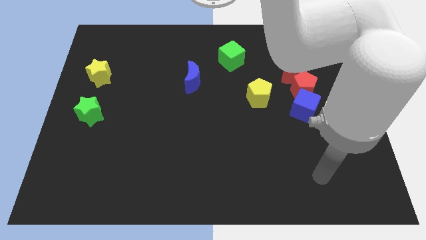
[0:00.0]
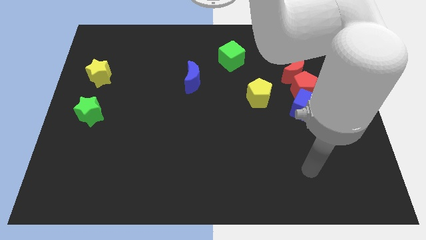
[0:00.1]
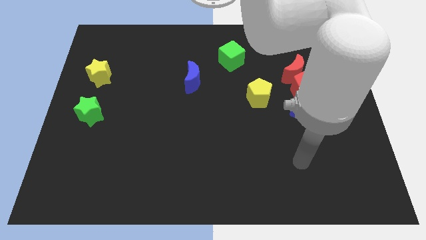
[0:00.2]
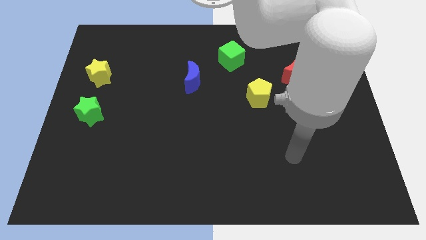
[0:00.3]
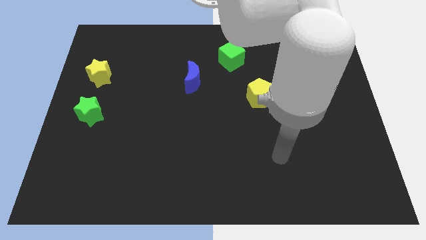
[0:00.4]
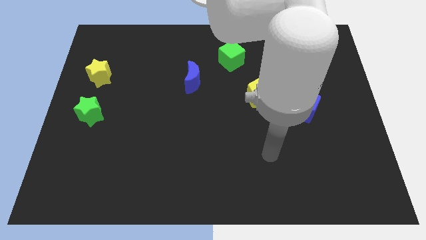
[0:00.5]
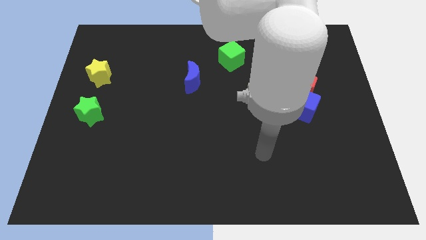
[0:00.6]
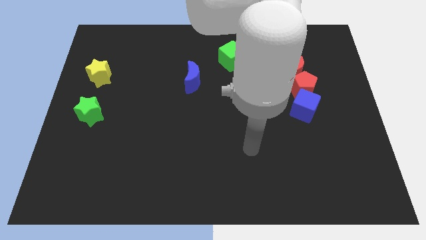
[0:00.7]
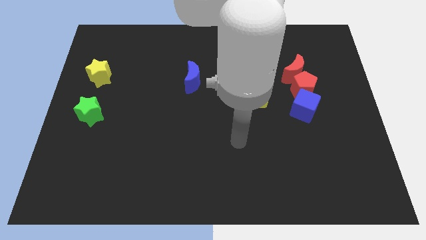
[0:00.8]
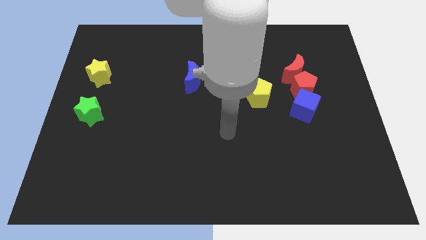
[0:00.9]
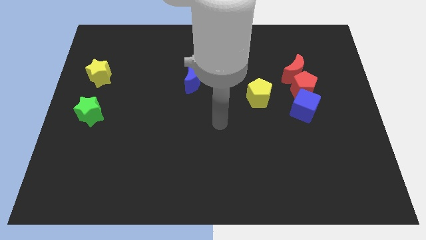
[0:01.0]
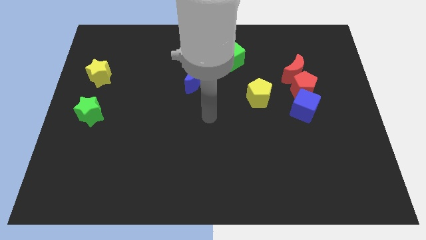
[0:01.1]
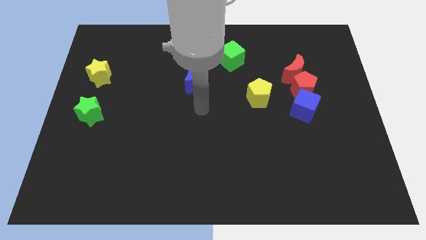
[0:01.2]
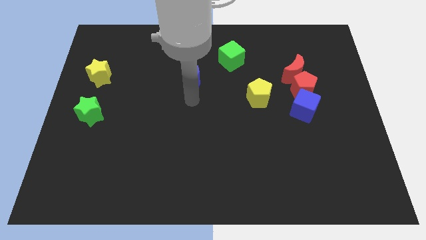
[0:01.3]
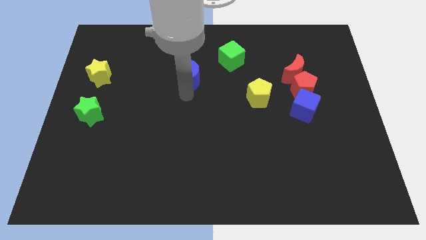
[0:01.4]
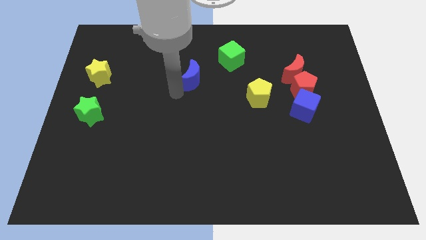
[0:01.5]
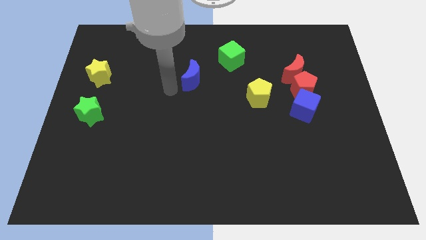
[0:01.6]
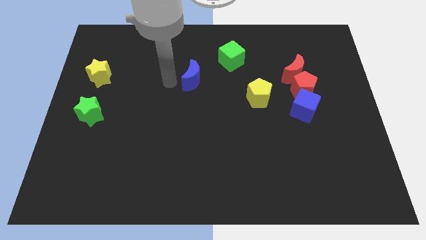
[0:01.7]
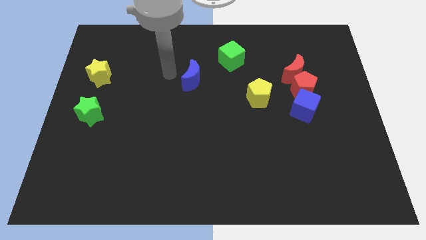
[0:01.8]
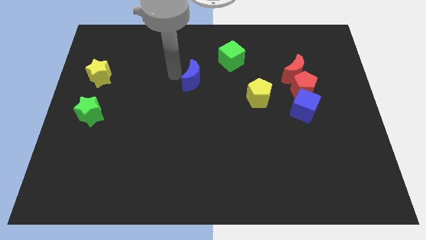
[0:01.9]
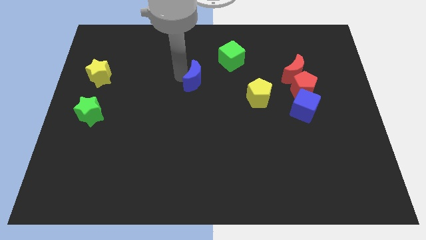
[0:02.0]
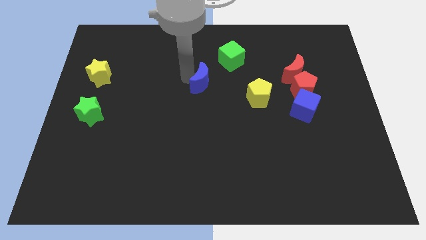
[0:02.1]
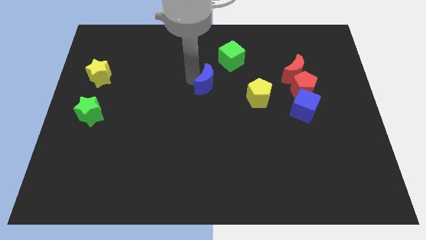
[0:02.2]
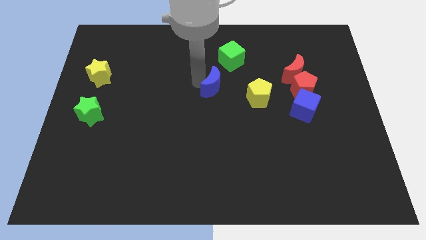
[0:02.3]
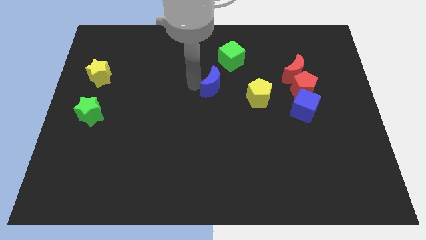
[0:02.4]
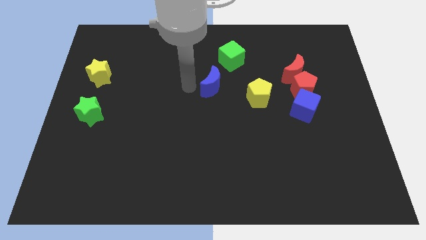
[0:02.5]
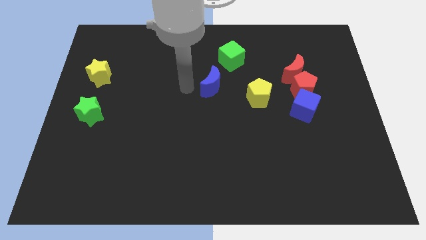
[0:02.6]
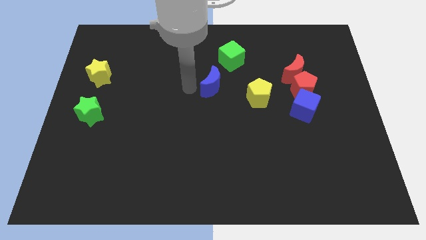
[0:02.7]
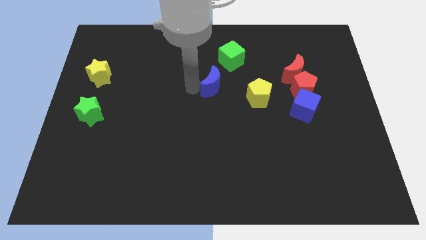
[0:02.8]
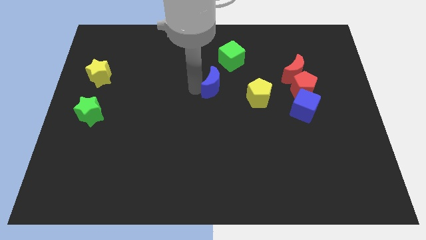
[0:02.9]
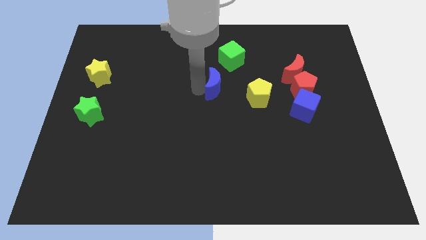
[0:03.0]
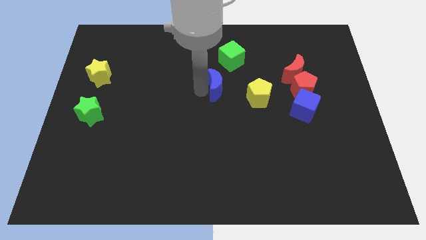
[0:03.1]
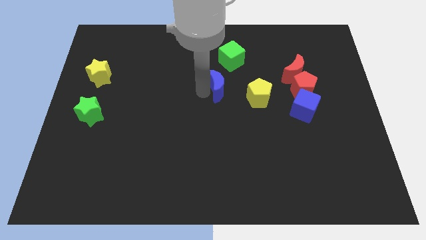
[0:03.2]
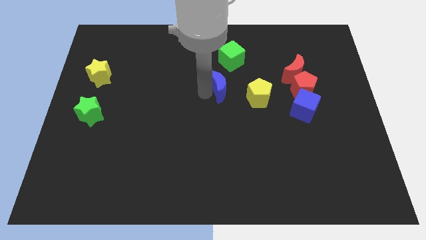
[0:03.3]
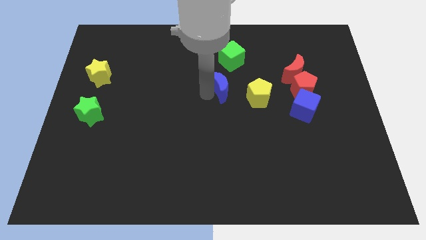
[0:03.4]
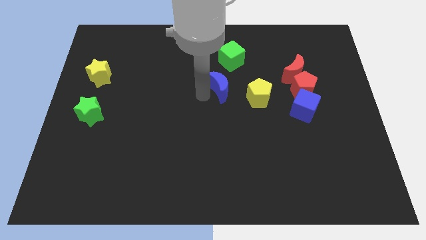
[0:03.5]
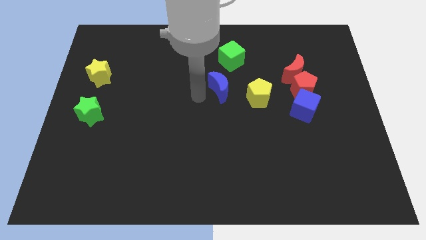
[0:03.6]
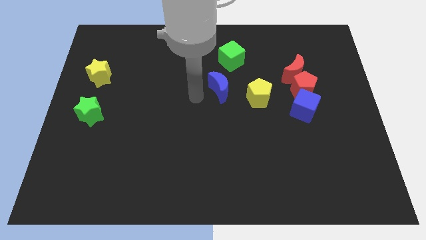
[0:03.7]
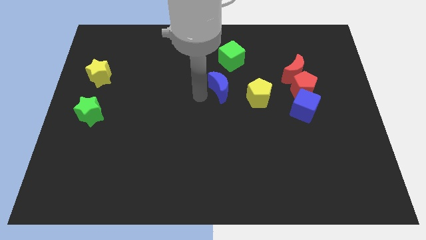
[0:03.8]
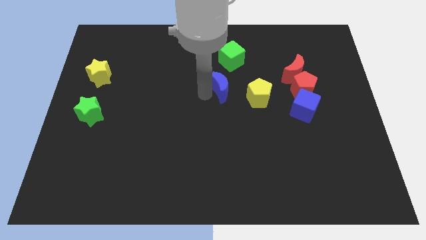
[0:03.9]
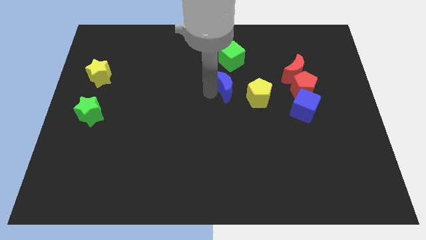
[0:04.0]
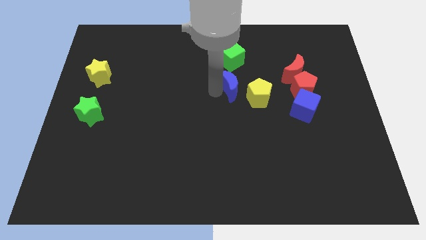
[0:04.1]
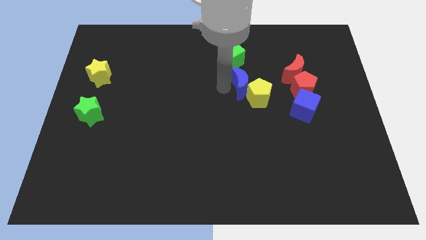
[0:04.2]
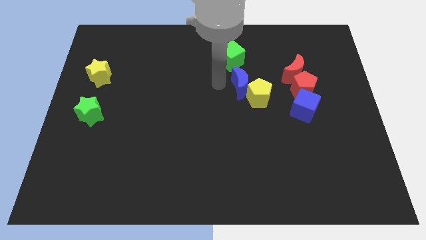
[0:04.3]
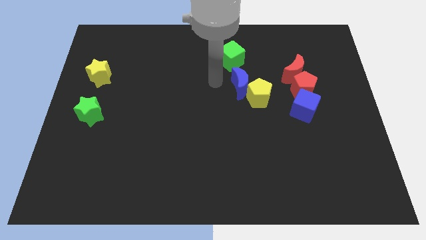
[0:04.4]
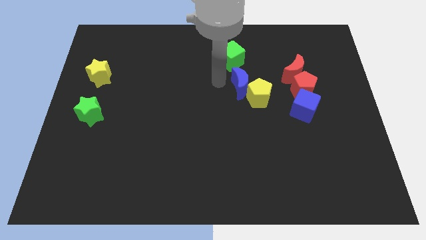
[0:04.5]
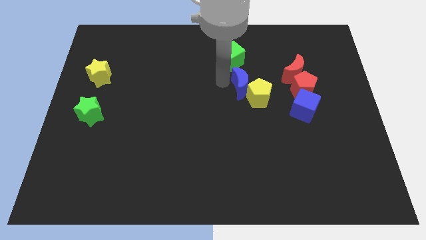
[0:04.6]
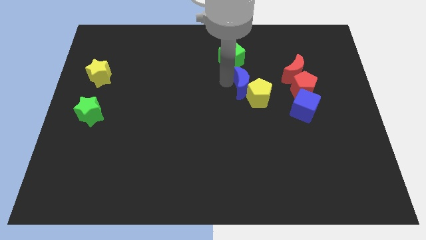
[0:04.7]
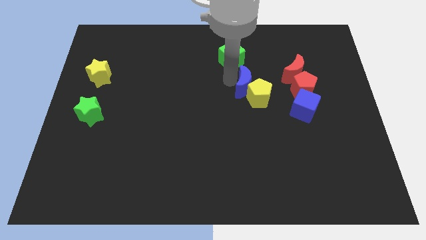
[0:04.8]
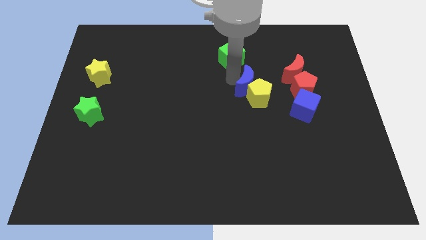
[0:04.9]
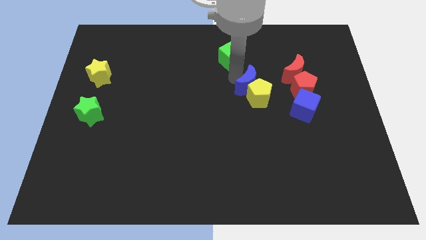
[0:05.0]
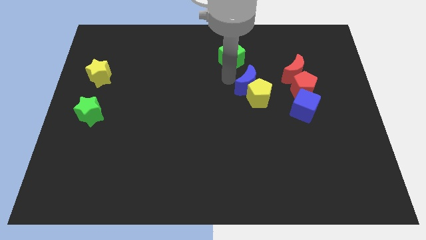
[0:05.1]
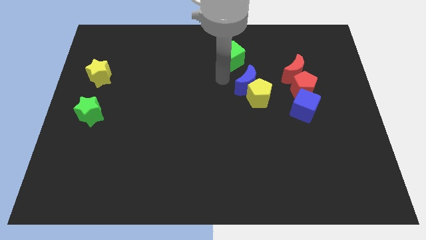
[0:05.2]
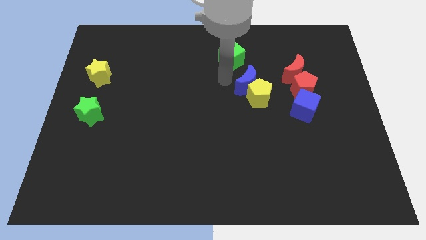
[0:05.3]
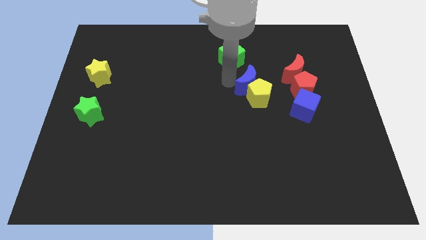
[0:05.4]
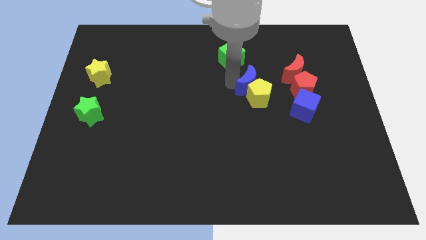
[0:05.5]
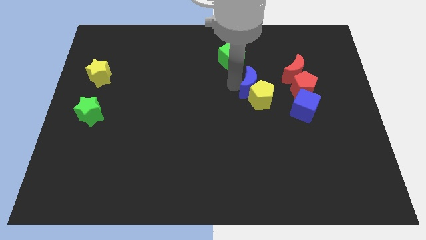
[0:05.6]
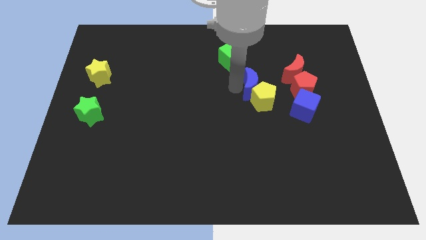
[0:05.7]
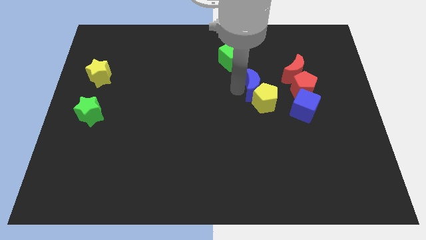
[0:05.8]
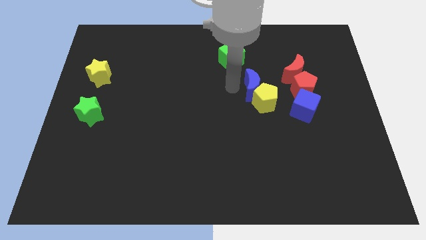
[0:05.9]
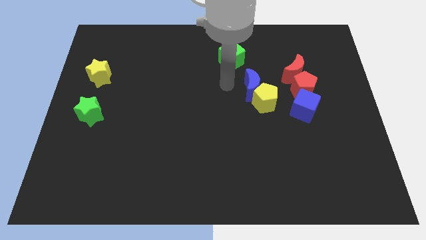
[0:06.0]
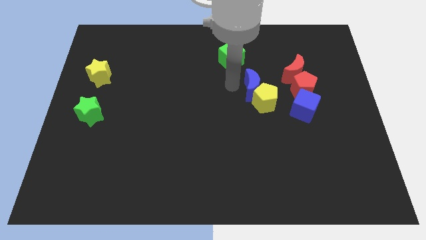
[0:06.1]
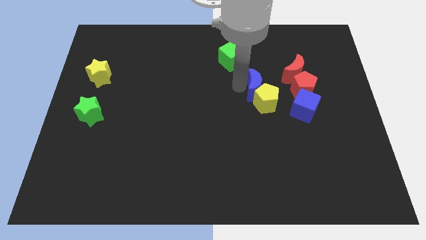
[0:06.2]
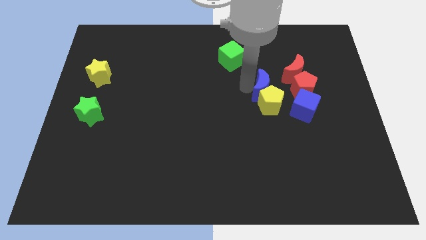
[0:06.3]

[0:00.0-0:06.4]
put the blue moon diagonally up and to the left of the blue cube

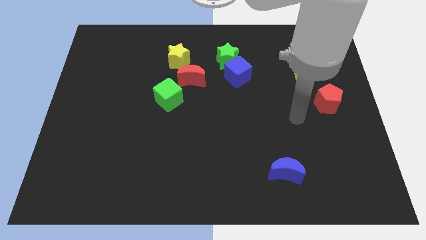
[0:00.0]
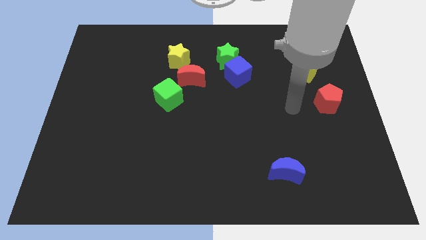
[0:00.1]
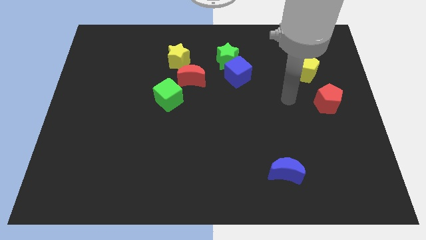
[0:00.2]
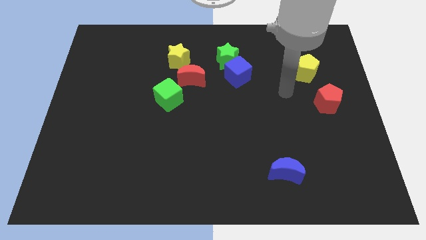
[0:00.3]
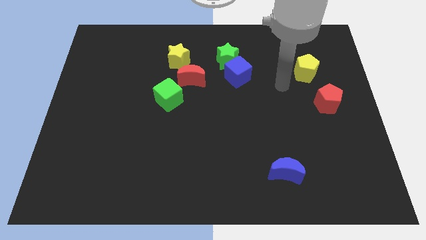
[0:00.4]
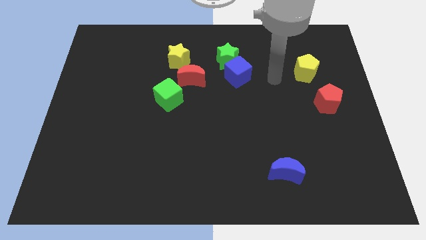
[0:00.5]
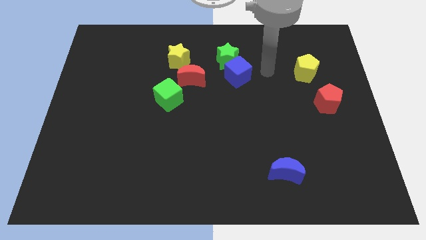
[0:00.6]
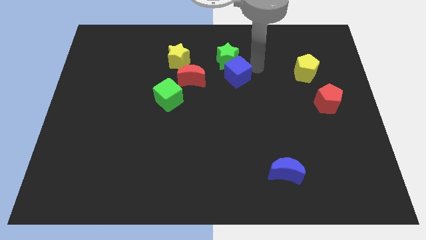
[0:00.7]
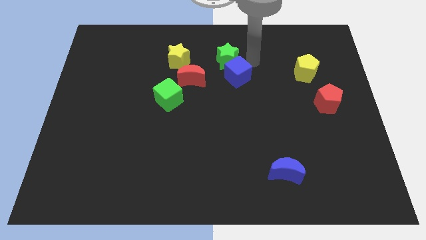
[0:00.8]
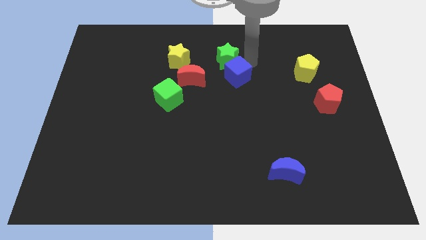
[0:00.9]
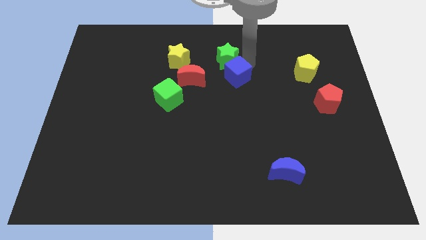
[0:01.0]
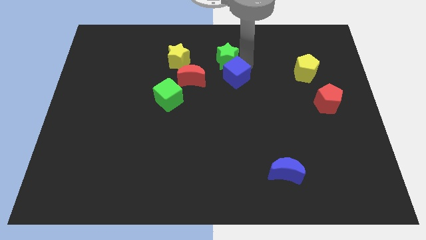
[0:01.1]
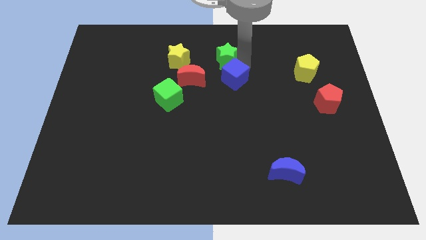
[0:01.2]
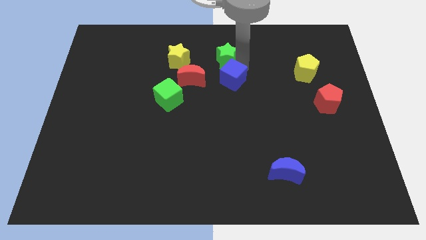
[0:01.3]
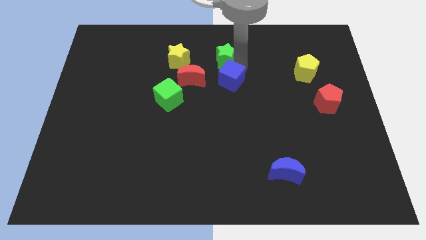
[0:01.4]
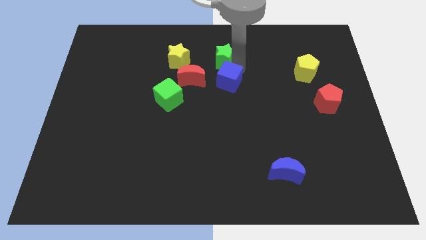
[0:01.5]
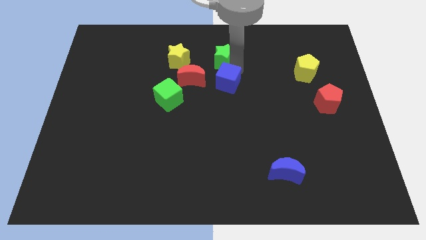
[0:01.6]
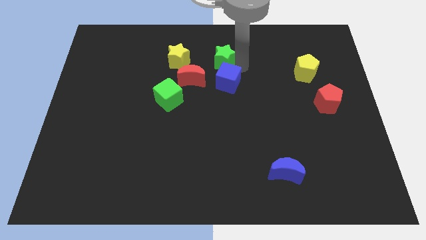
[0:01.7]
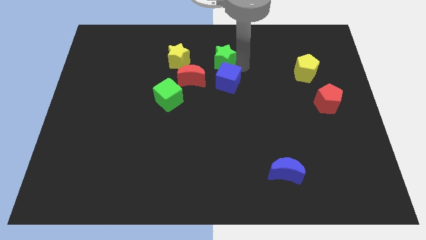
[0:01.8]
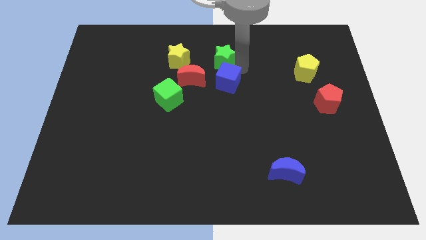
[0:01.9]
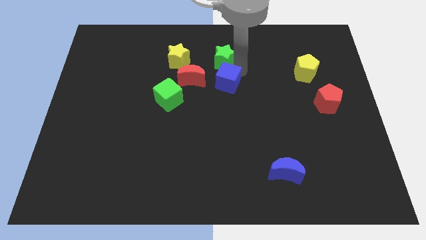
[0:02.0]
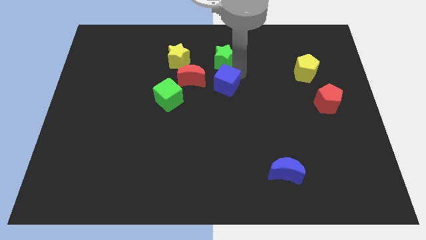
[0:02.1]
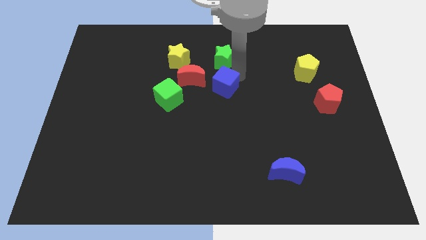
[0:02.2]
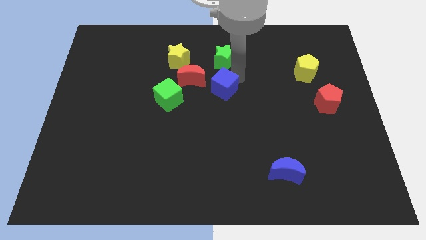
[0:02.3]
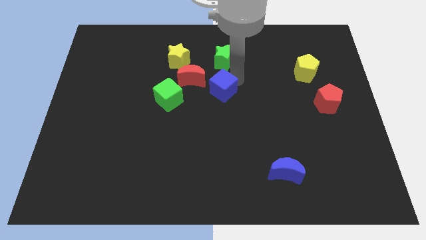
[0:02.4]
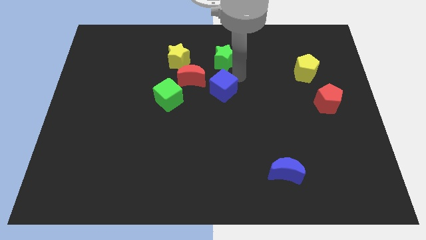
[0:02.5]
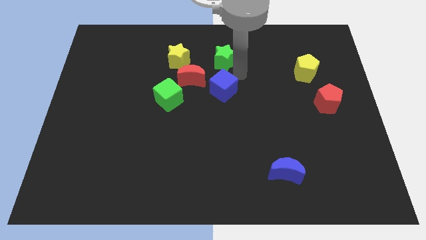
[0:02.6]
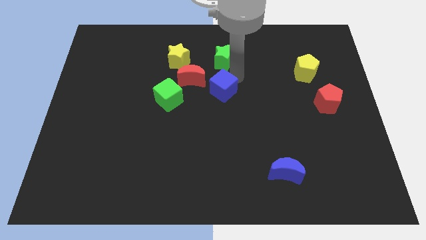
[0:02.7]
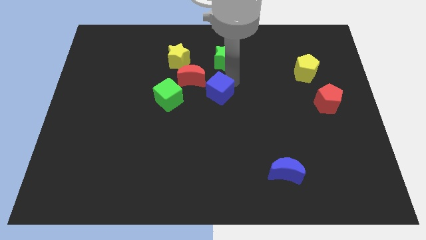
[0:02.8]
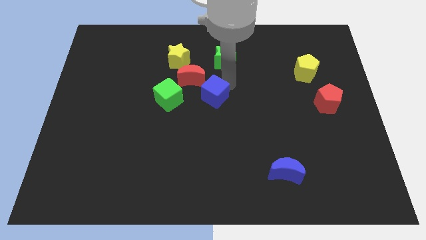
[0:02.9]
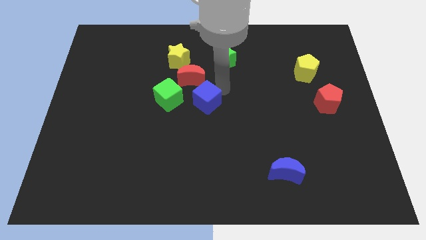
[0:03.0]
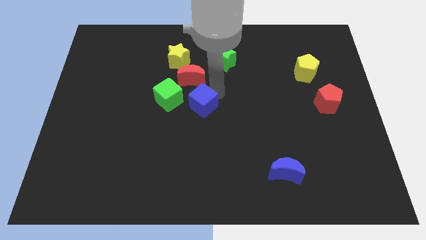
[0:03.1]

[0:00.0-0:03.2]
put the blue cube to the bottom right of the green cube
